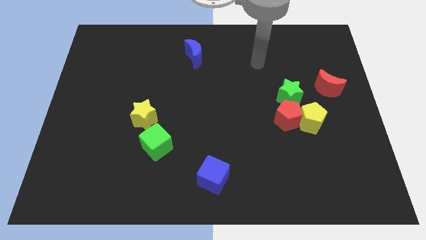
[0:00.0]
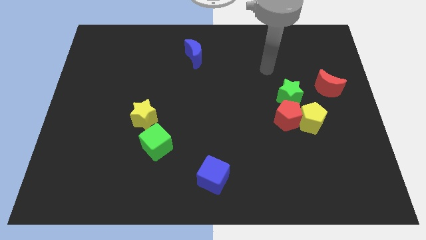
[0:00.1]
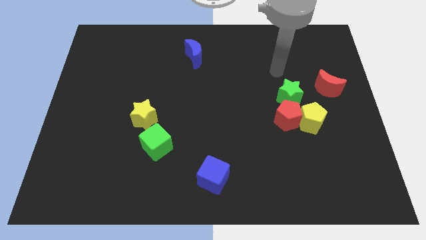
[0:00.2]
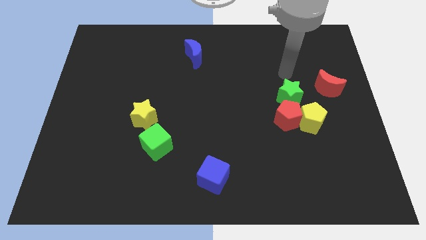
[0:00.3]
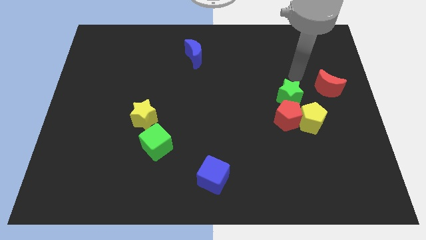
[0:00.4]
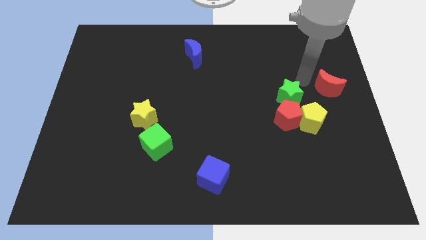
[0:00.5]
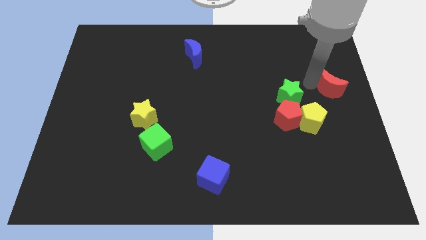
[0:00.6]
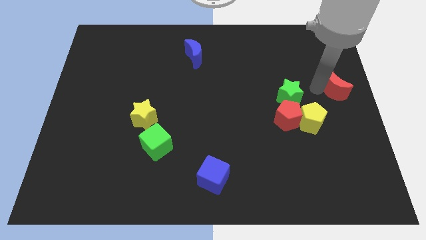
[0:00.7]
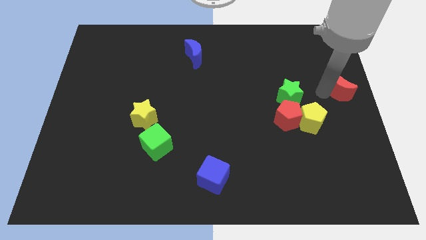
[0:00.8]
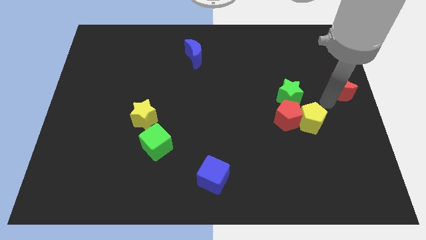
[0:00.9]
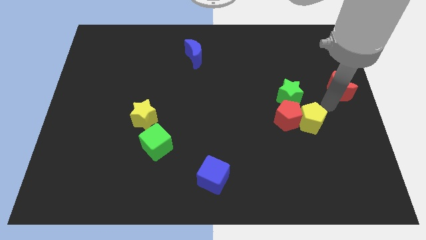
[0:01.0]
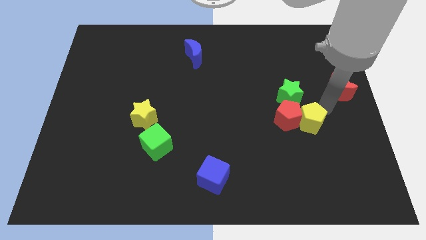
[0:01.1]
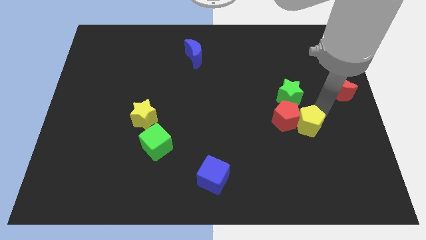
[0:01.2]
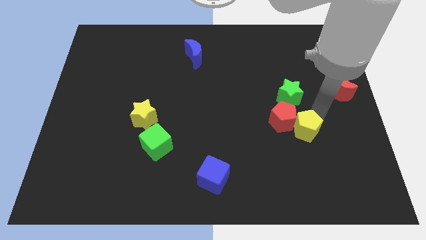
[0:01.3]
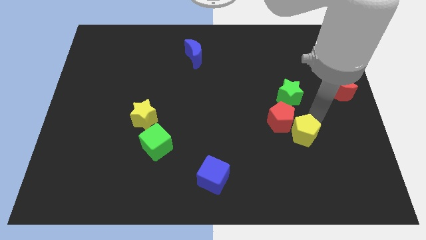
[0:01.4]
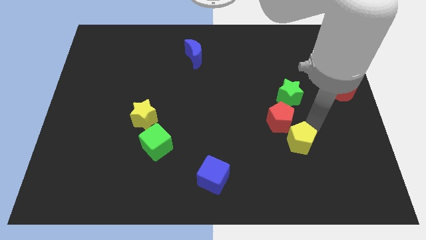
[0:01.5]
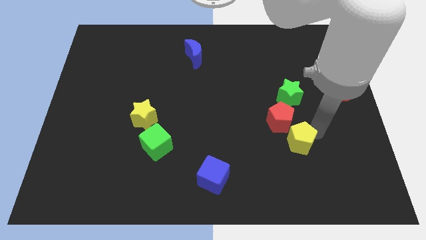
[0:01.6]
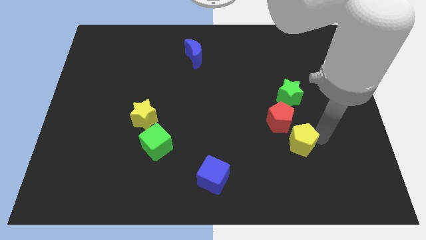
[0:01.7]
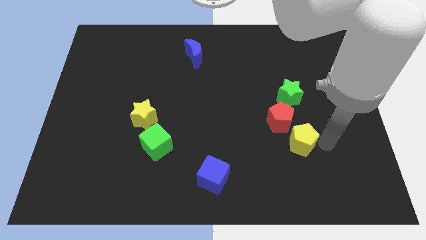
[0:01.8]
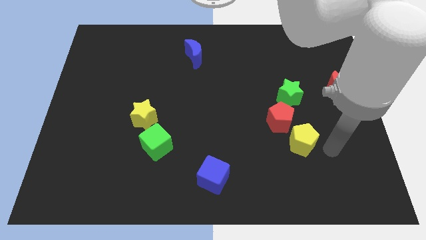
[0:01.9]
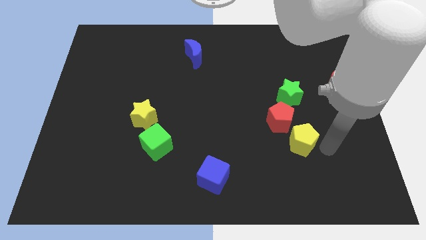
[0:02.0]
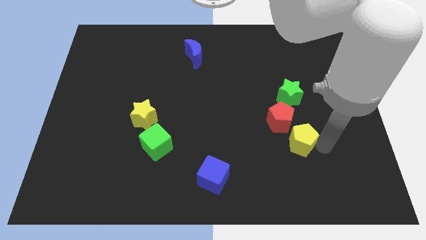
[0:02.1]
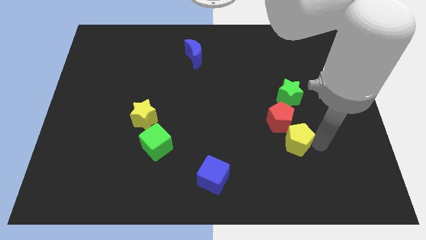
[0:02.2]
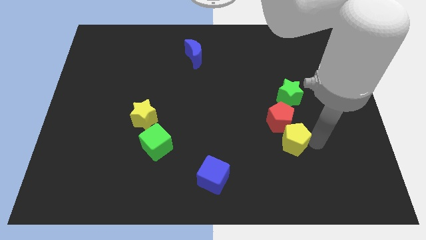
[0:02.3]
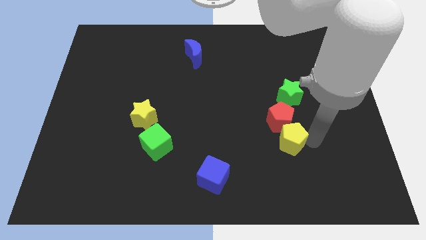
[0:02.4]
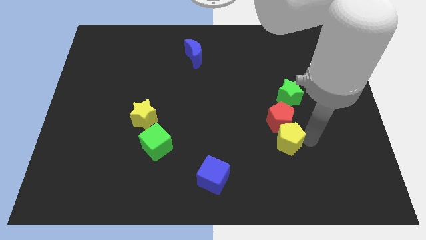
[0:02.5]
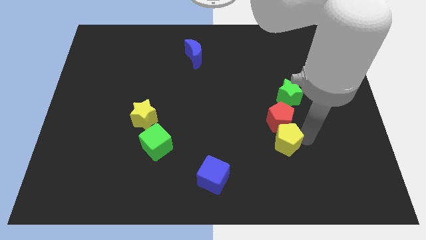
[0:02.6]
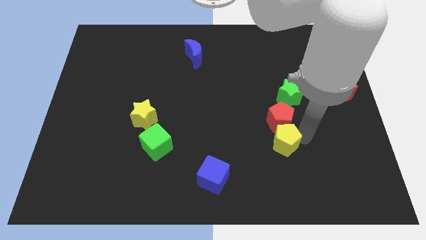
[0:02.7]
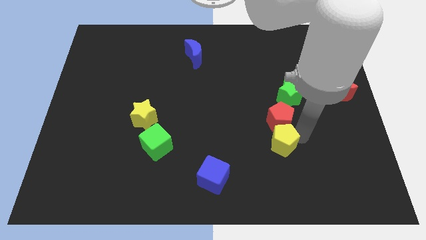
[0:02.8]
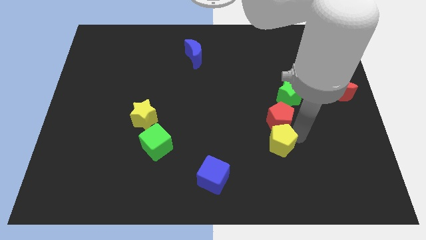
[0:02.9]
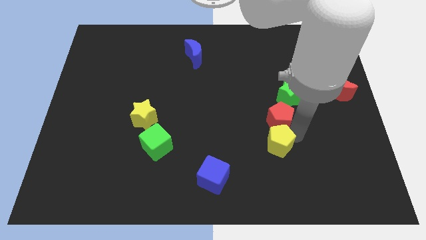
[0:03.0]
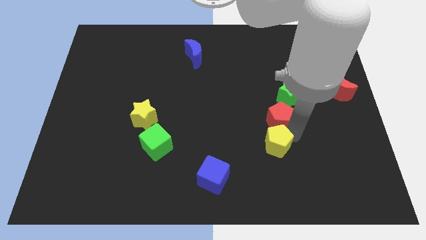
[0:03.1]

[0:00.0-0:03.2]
slightly slide the yellow pentagon to the left

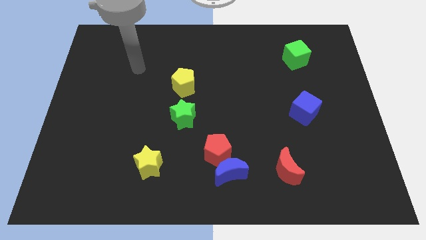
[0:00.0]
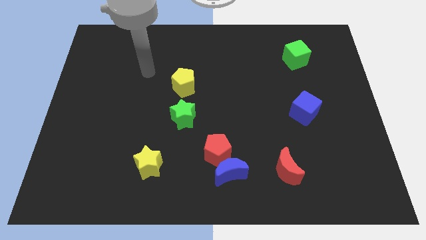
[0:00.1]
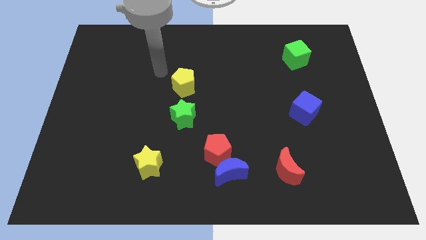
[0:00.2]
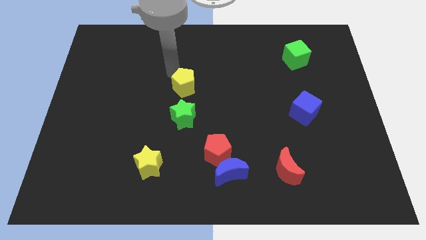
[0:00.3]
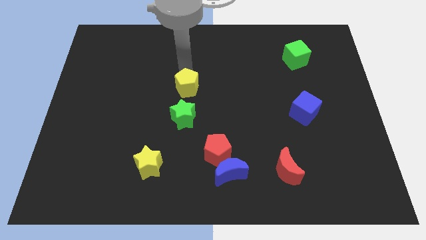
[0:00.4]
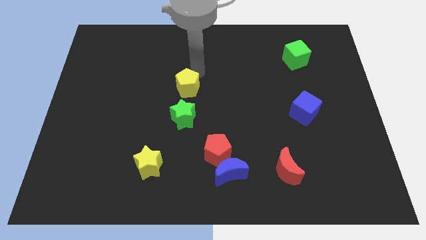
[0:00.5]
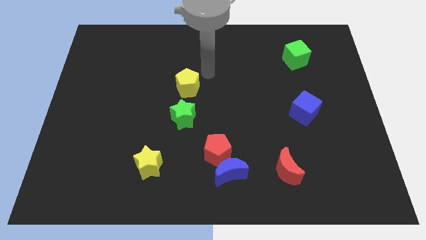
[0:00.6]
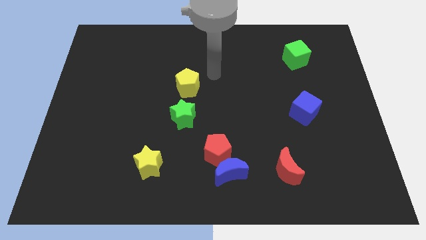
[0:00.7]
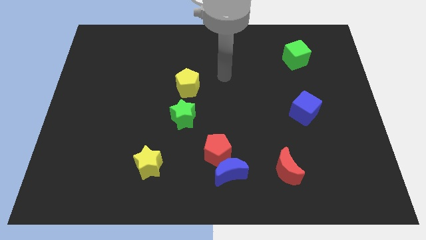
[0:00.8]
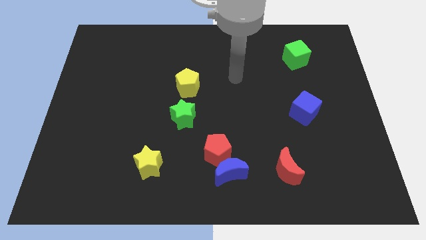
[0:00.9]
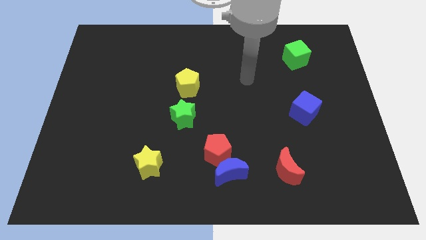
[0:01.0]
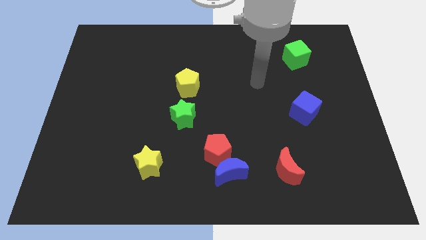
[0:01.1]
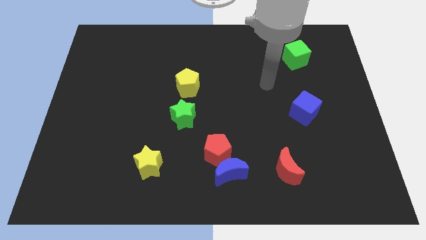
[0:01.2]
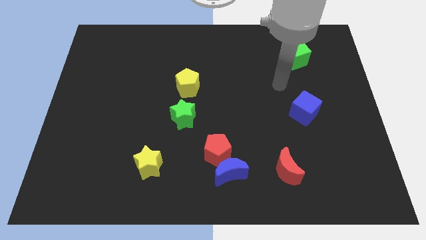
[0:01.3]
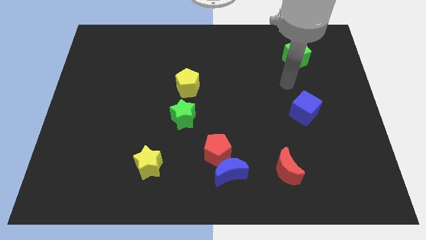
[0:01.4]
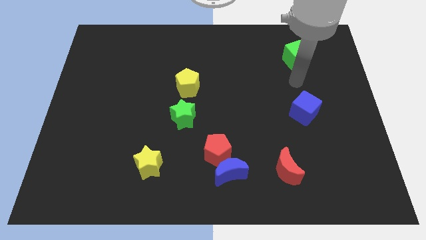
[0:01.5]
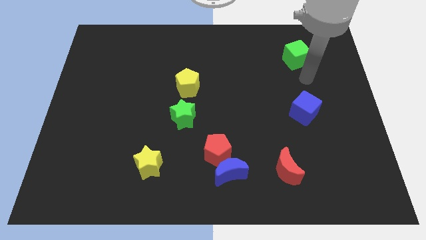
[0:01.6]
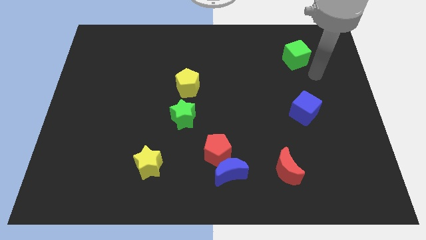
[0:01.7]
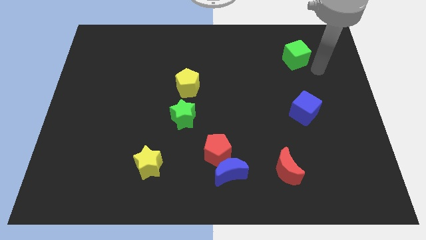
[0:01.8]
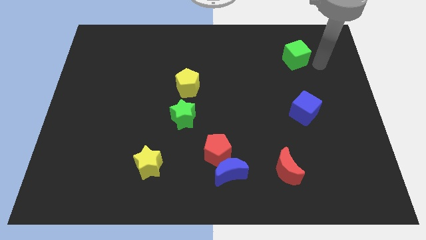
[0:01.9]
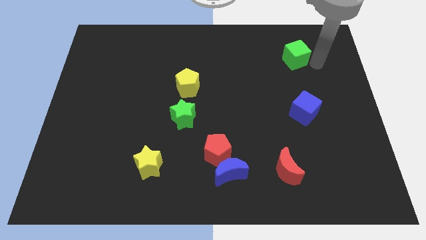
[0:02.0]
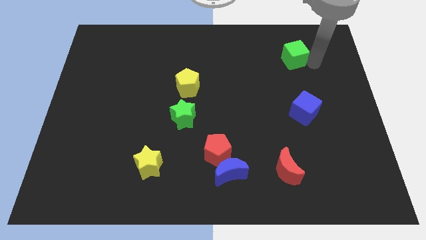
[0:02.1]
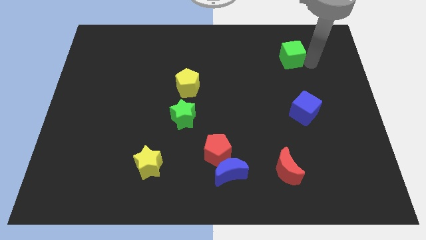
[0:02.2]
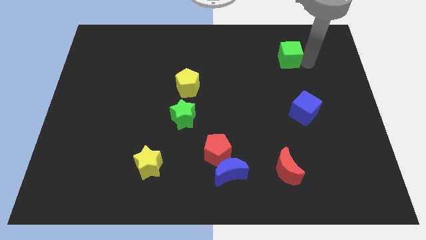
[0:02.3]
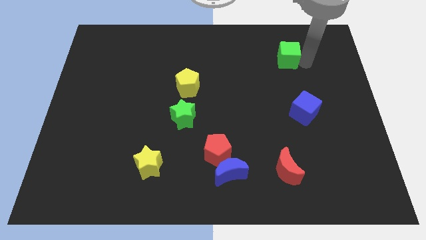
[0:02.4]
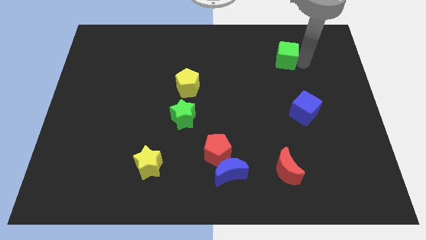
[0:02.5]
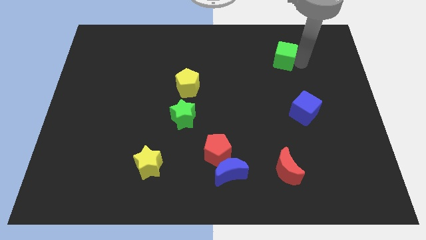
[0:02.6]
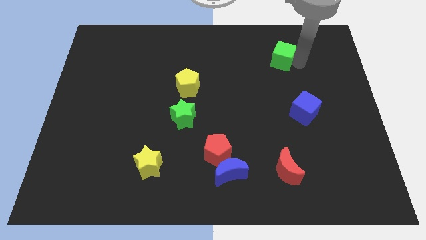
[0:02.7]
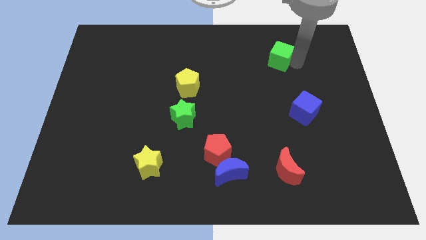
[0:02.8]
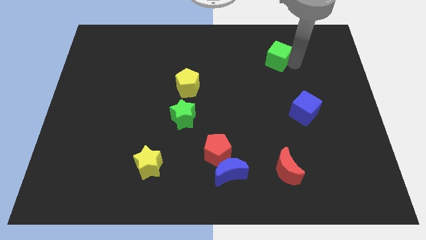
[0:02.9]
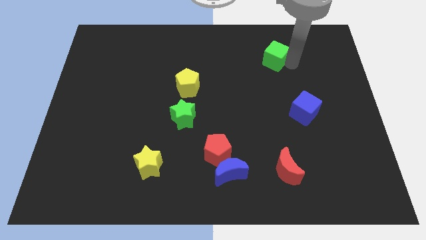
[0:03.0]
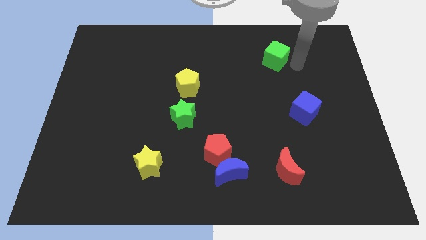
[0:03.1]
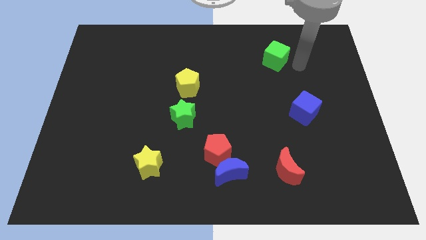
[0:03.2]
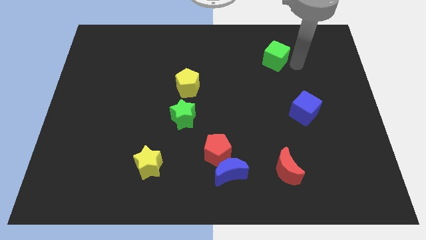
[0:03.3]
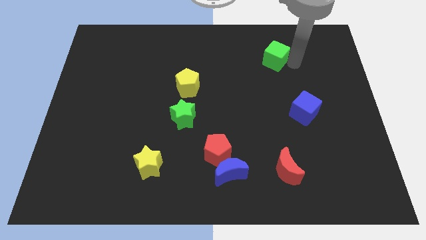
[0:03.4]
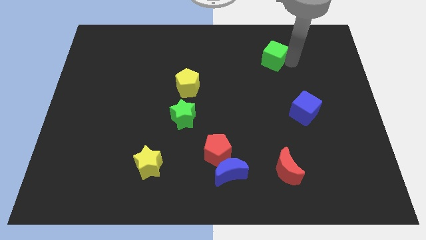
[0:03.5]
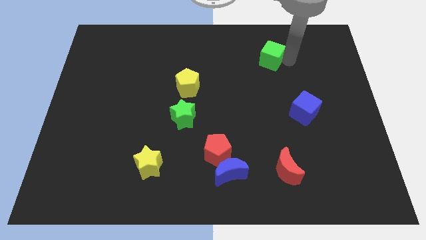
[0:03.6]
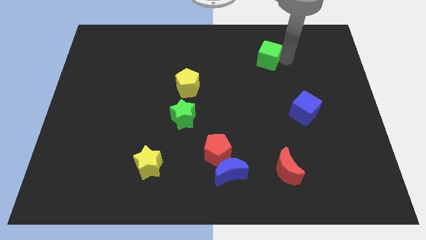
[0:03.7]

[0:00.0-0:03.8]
slide the green cube left a little bit

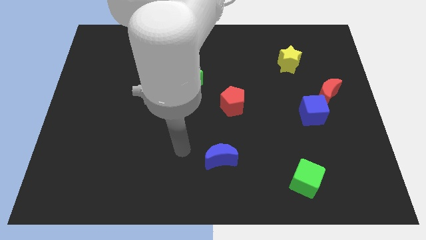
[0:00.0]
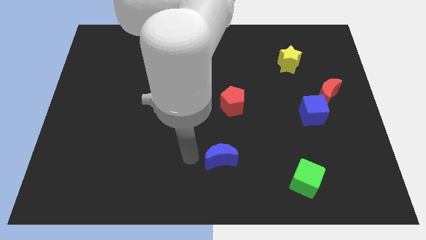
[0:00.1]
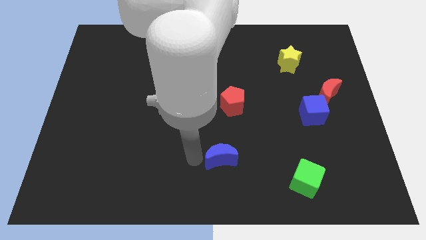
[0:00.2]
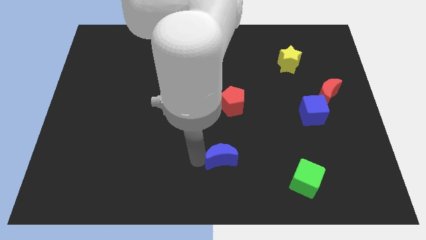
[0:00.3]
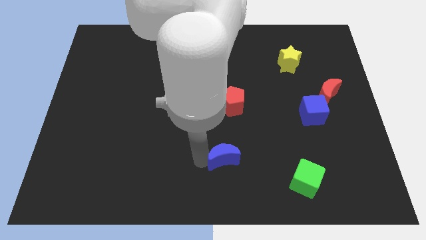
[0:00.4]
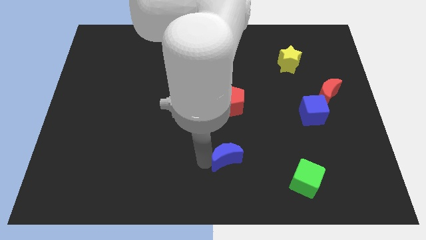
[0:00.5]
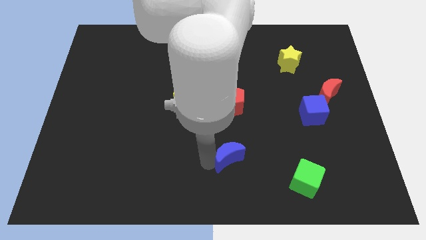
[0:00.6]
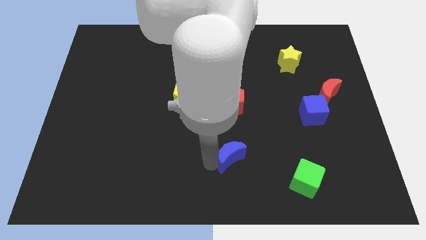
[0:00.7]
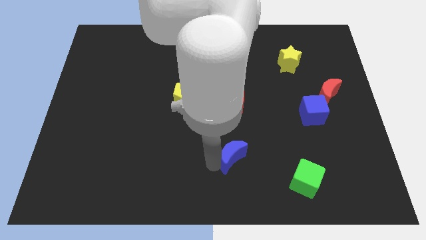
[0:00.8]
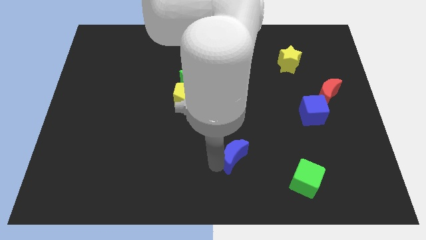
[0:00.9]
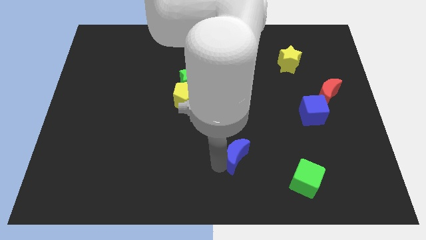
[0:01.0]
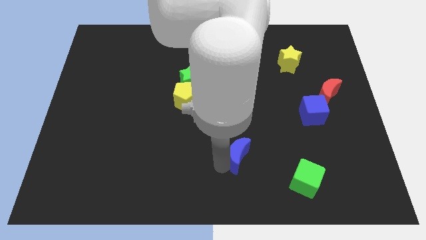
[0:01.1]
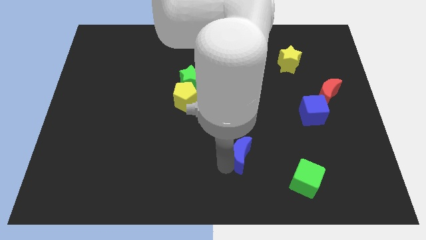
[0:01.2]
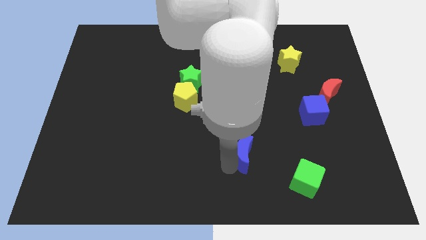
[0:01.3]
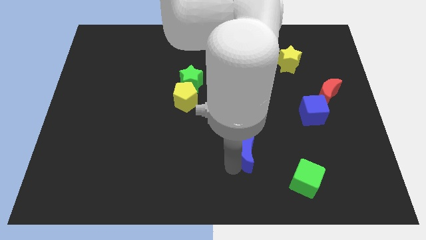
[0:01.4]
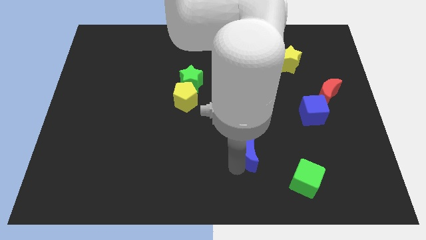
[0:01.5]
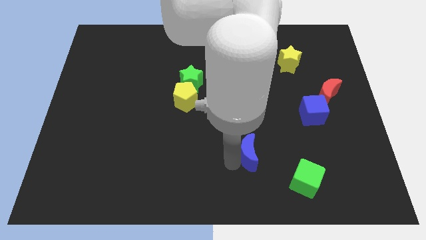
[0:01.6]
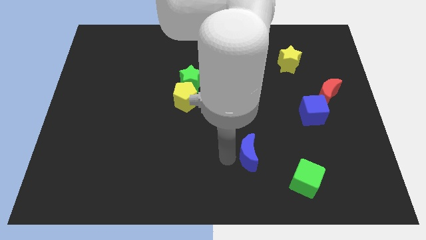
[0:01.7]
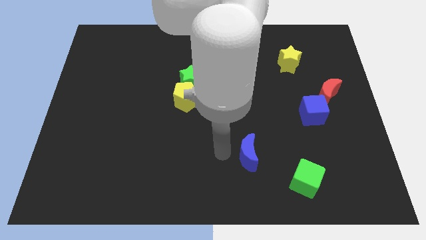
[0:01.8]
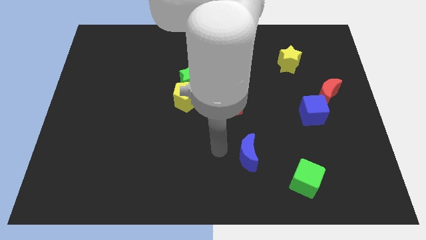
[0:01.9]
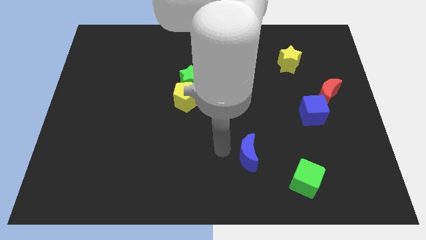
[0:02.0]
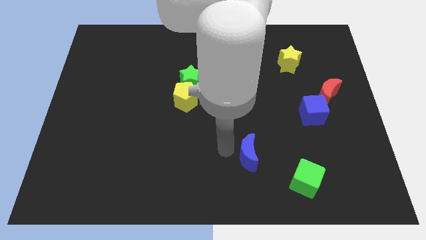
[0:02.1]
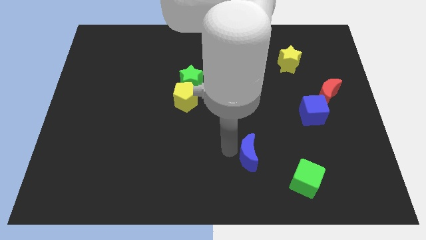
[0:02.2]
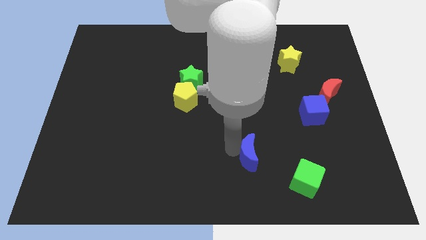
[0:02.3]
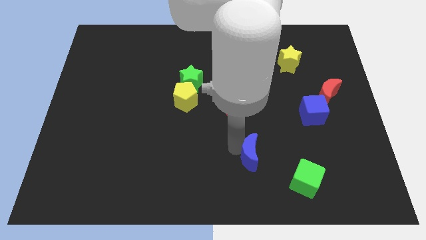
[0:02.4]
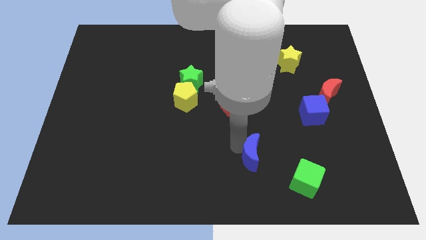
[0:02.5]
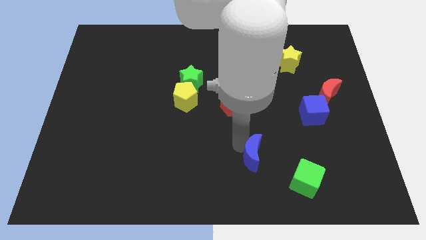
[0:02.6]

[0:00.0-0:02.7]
push the blue moon to the right somewhat
